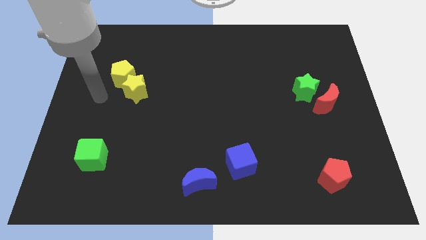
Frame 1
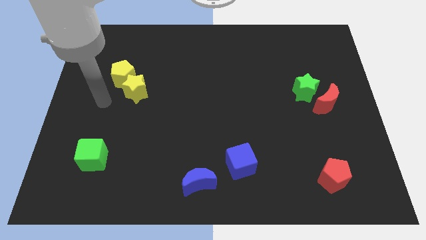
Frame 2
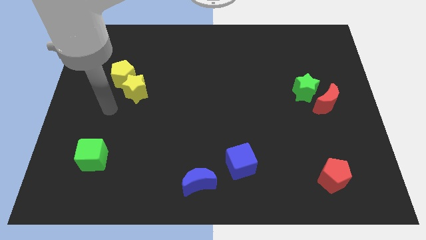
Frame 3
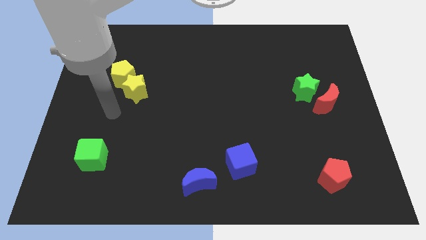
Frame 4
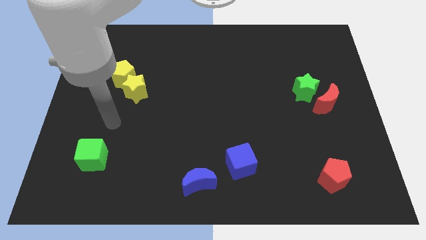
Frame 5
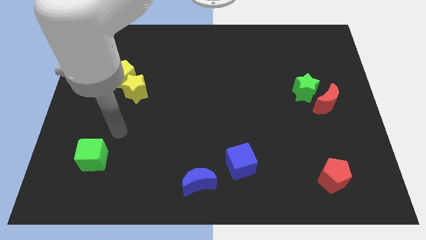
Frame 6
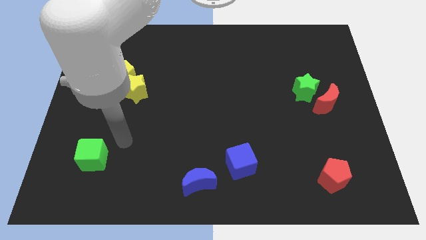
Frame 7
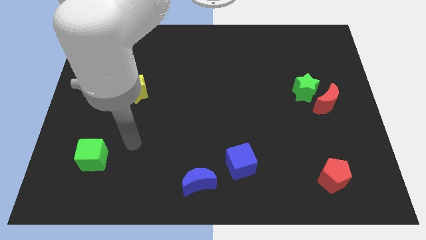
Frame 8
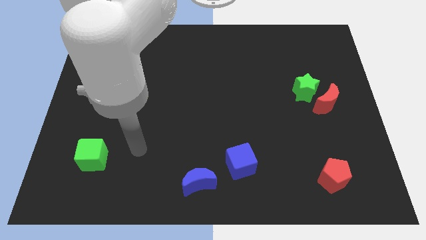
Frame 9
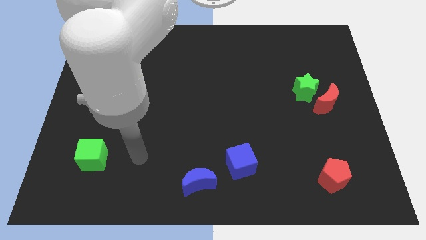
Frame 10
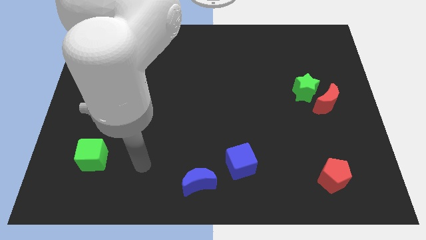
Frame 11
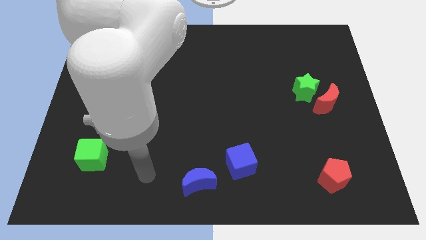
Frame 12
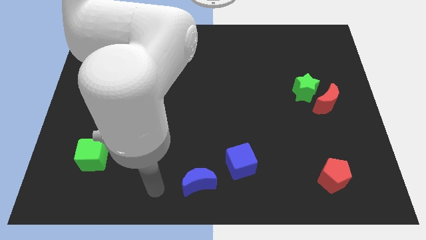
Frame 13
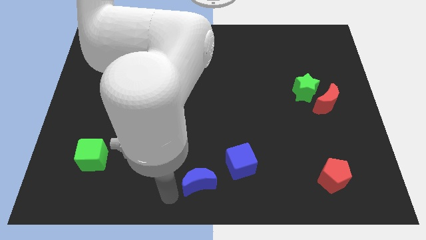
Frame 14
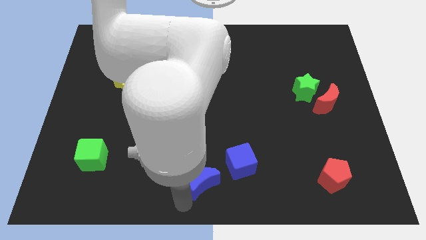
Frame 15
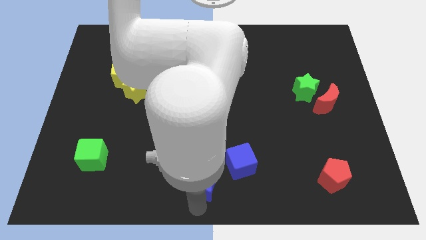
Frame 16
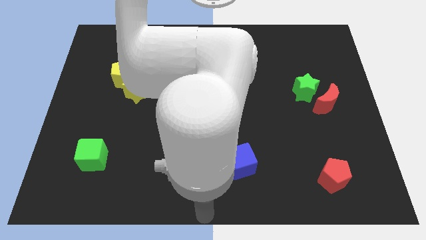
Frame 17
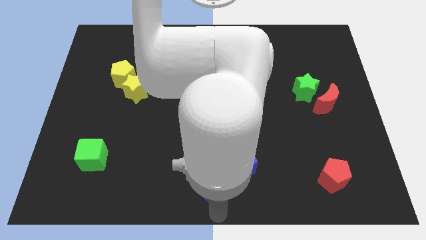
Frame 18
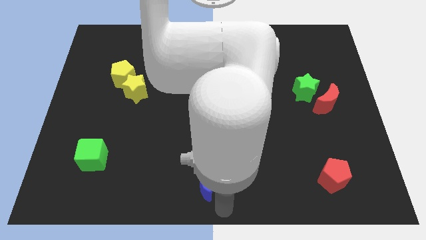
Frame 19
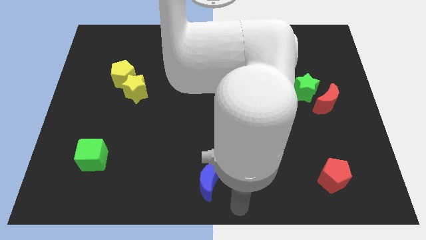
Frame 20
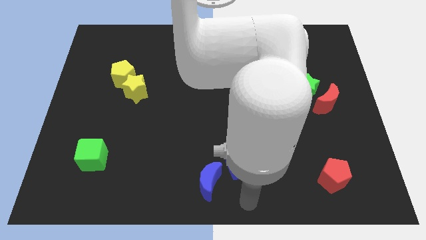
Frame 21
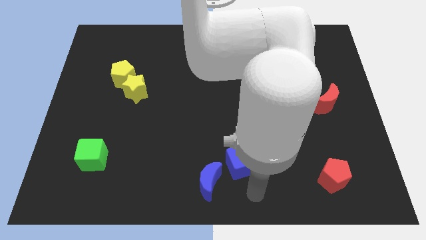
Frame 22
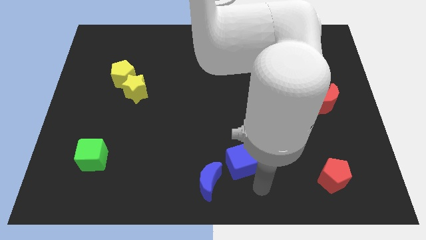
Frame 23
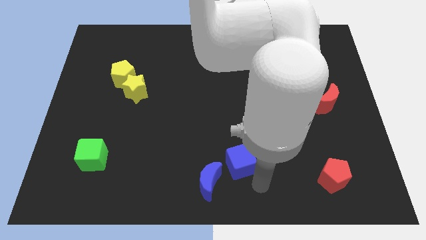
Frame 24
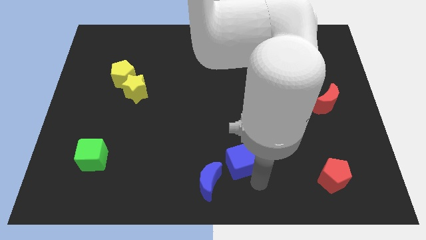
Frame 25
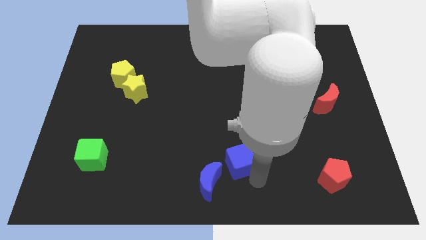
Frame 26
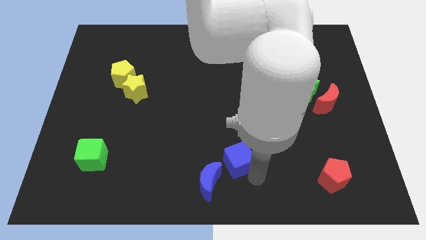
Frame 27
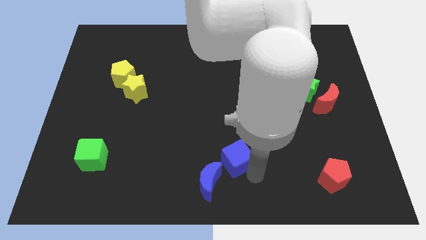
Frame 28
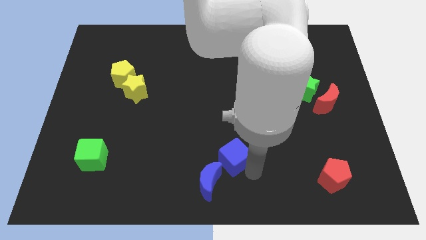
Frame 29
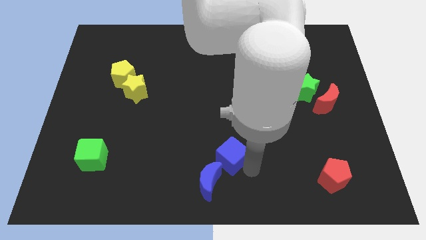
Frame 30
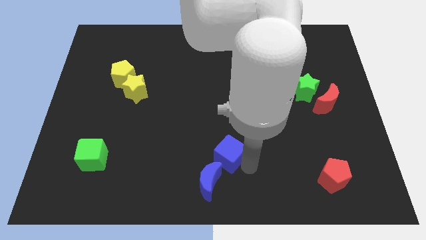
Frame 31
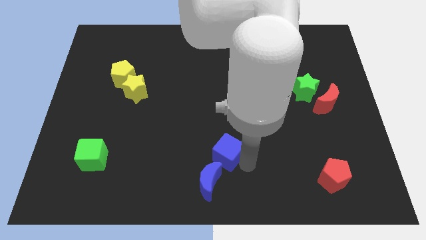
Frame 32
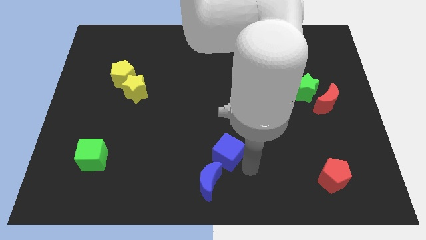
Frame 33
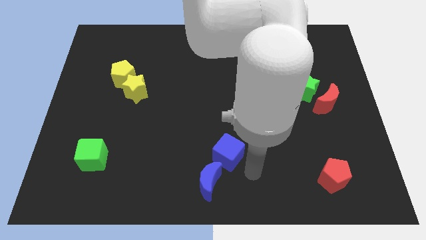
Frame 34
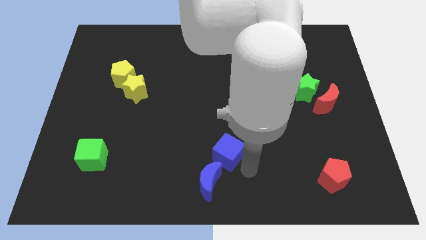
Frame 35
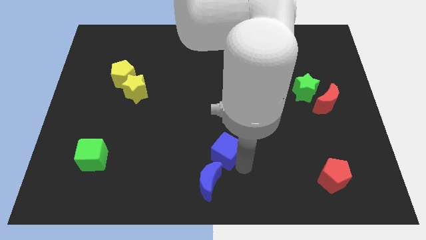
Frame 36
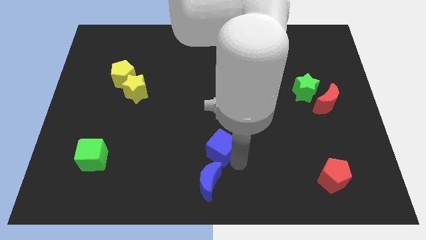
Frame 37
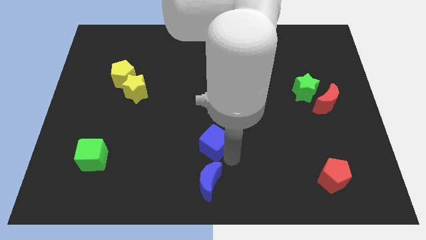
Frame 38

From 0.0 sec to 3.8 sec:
slightly move the blue cube upwards and then to the left

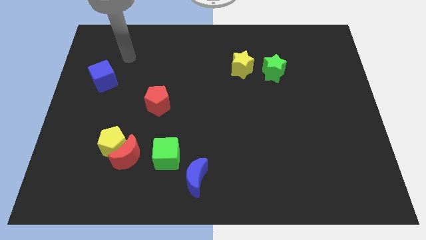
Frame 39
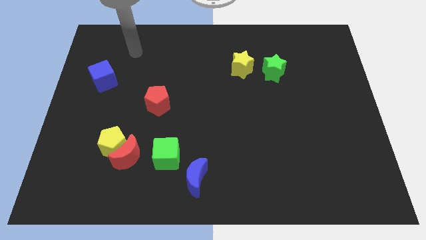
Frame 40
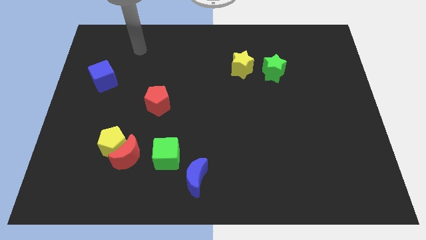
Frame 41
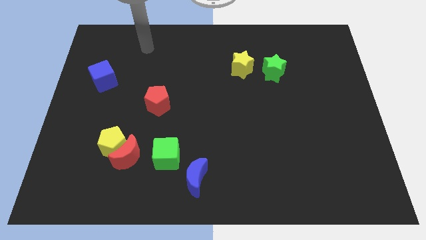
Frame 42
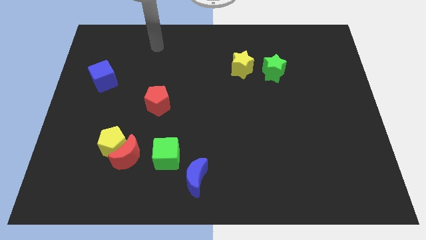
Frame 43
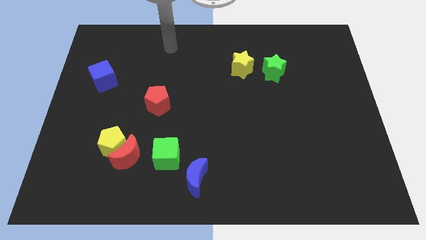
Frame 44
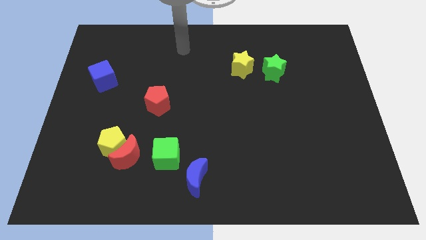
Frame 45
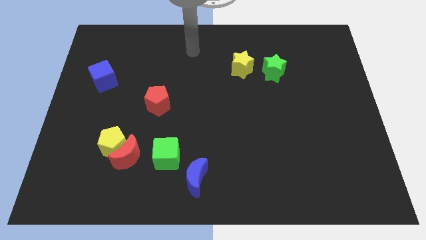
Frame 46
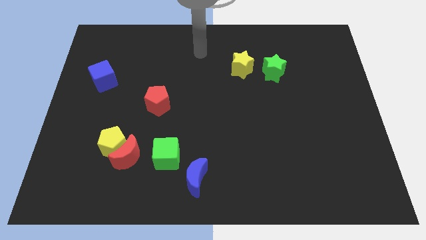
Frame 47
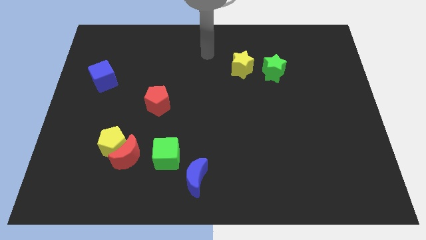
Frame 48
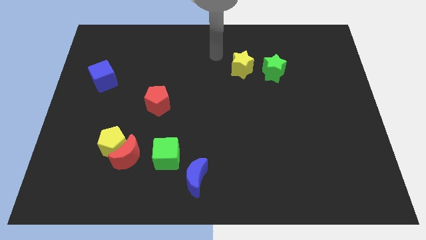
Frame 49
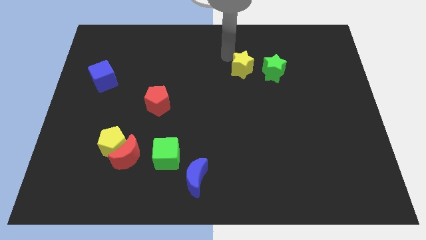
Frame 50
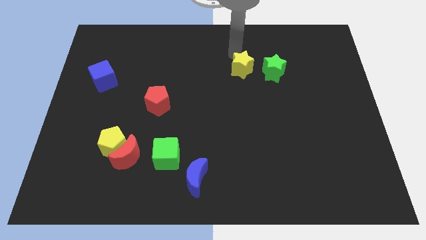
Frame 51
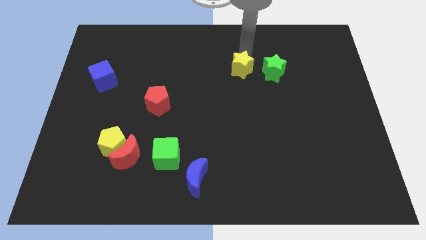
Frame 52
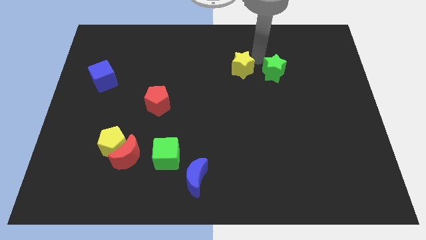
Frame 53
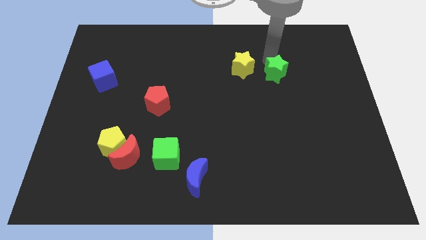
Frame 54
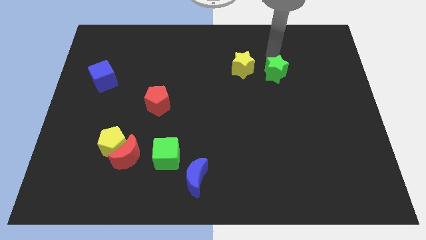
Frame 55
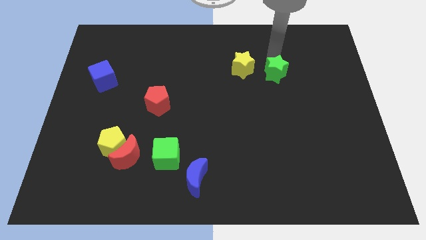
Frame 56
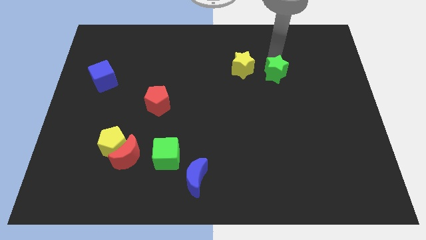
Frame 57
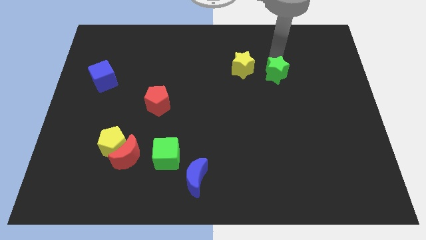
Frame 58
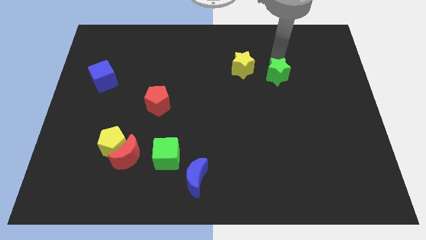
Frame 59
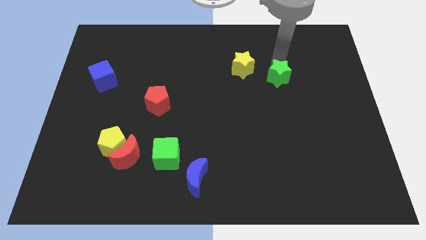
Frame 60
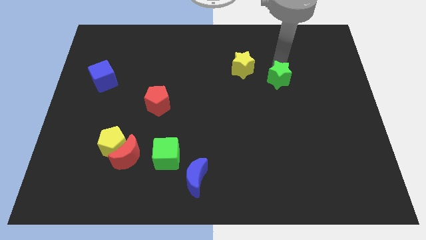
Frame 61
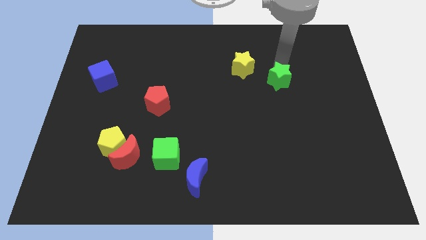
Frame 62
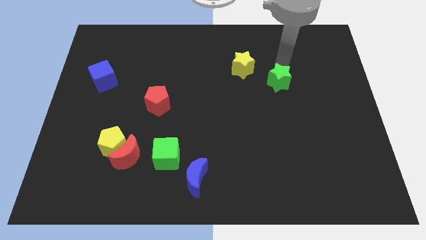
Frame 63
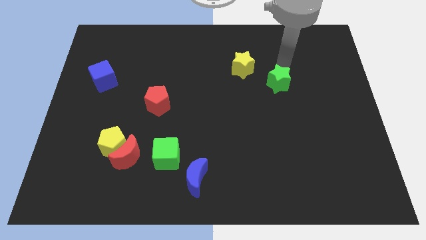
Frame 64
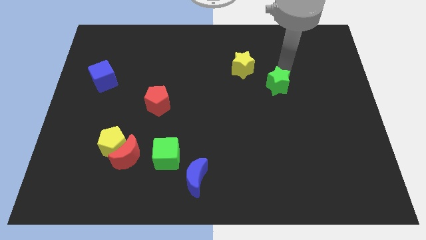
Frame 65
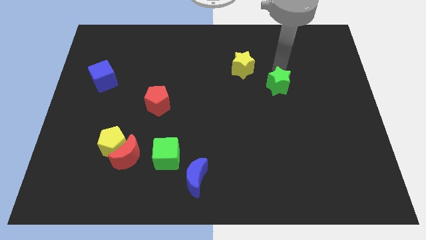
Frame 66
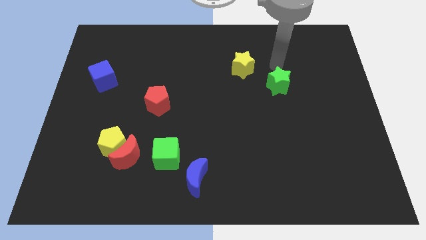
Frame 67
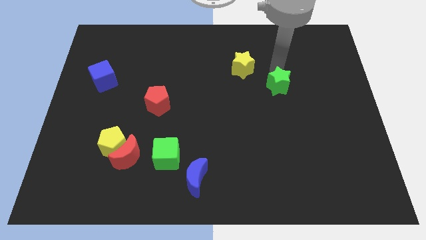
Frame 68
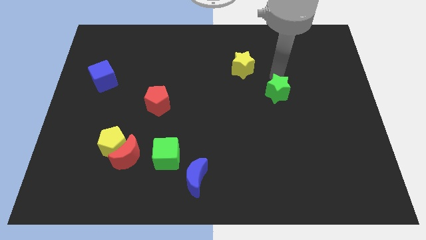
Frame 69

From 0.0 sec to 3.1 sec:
slightly move the green star downwards

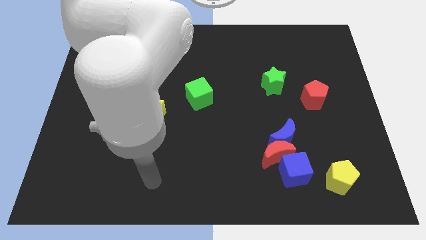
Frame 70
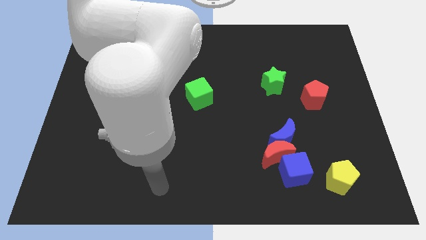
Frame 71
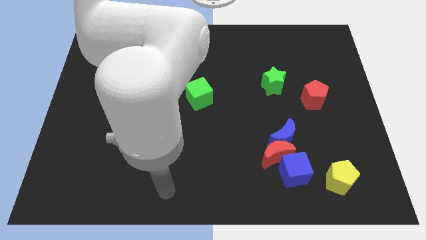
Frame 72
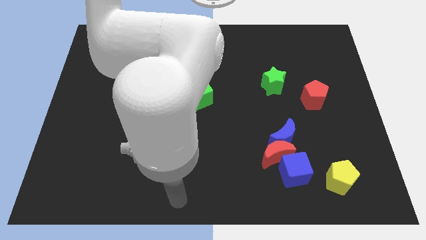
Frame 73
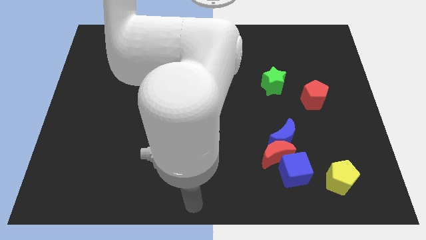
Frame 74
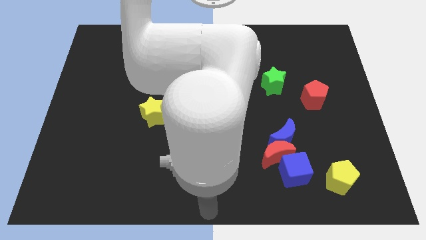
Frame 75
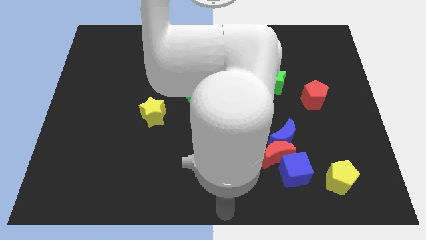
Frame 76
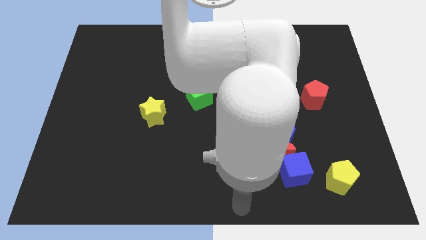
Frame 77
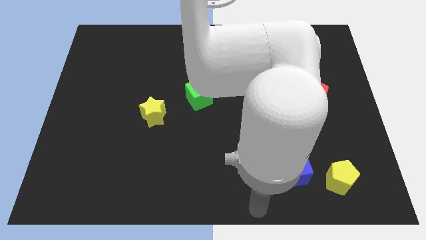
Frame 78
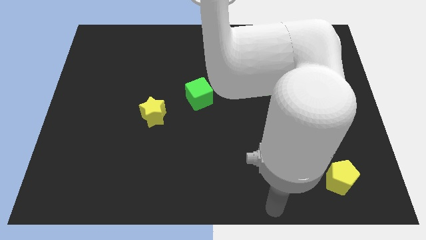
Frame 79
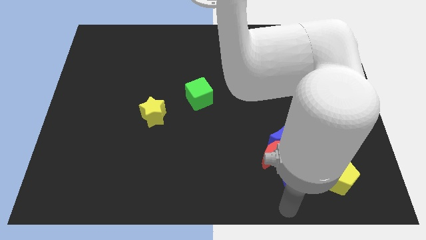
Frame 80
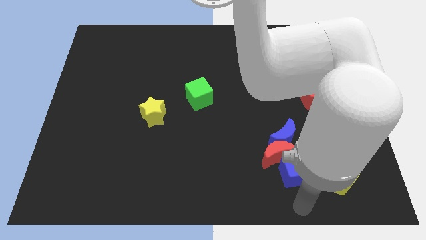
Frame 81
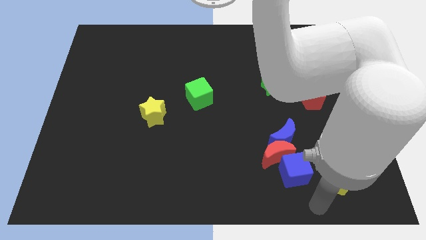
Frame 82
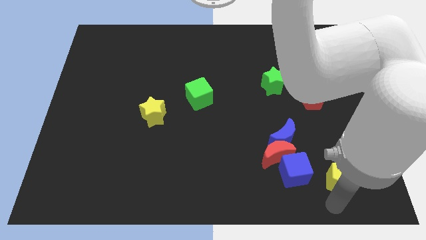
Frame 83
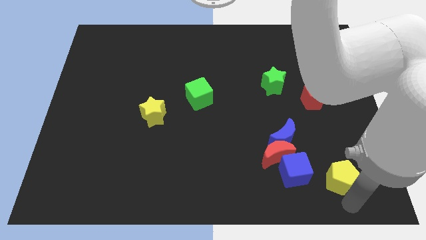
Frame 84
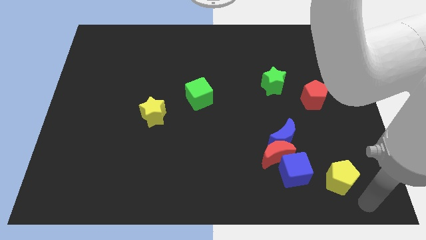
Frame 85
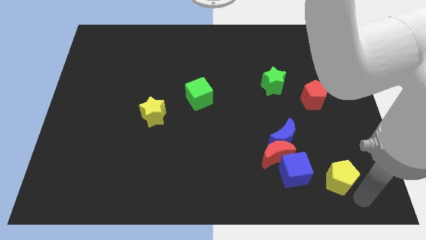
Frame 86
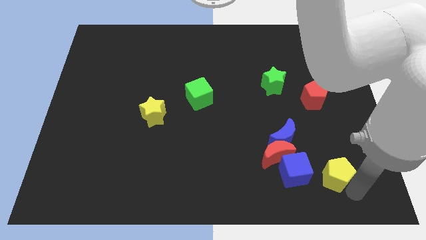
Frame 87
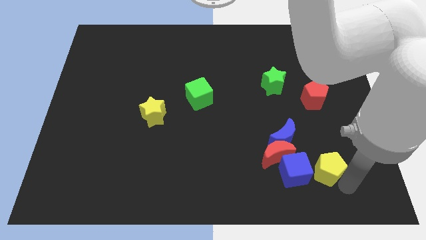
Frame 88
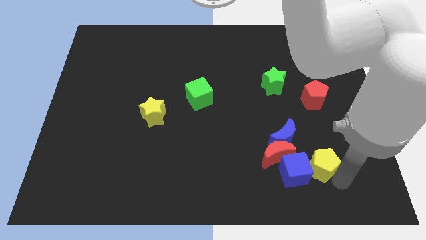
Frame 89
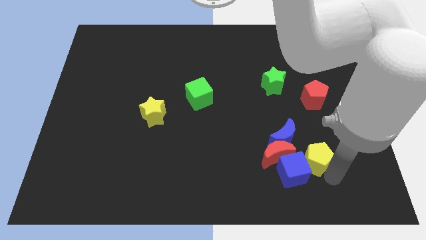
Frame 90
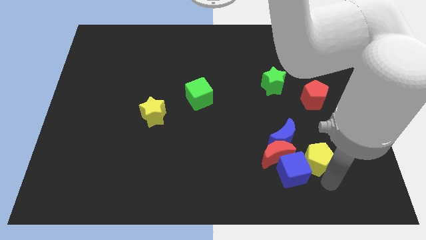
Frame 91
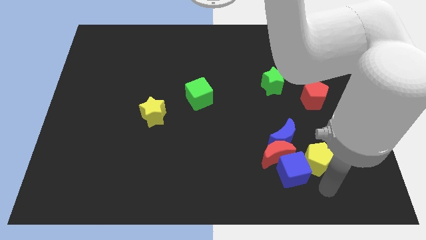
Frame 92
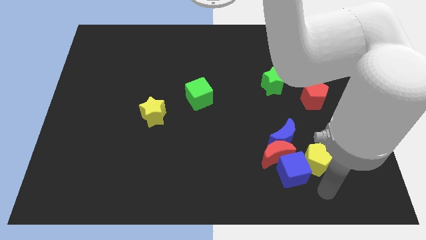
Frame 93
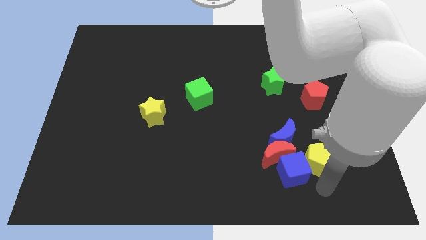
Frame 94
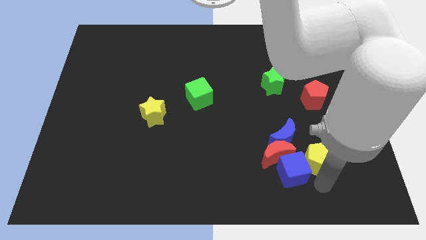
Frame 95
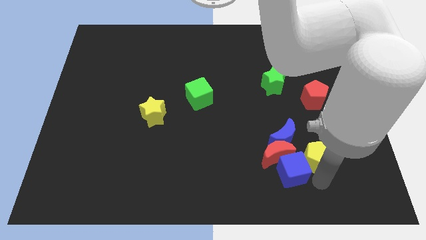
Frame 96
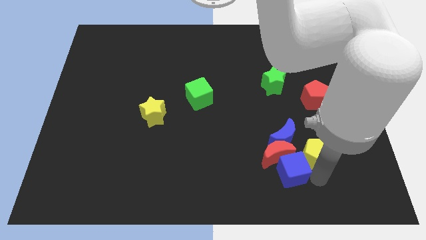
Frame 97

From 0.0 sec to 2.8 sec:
slightly push the yellow pentagon upwards and left
